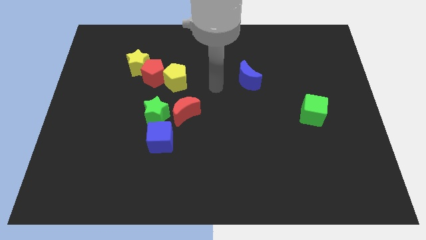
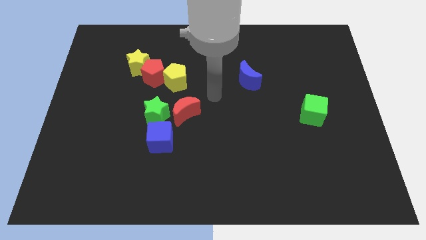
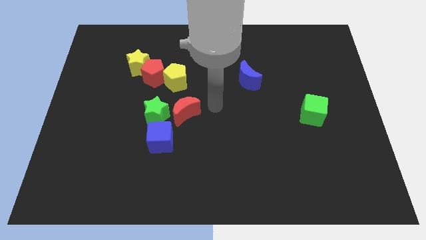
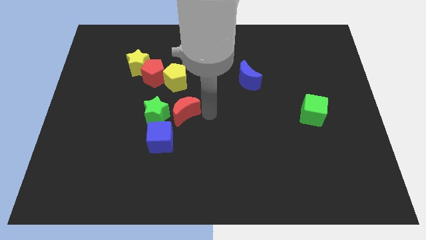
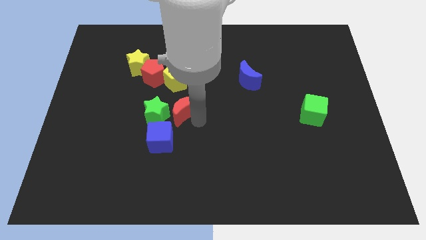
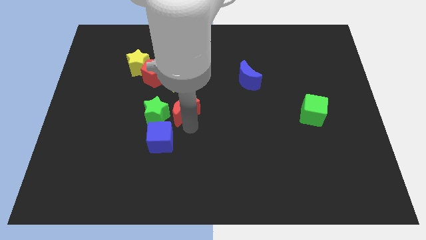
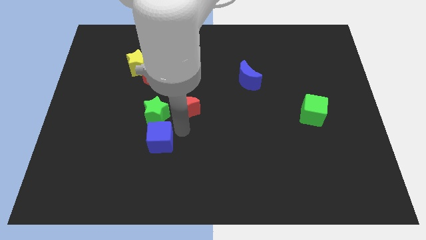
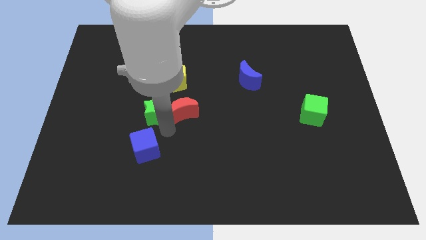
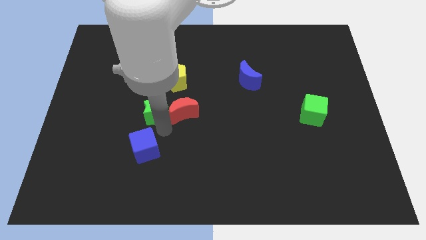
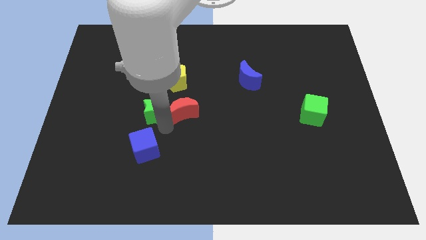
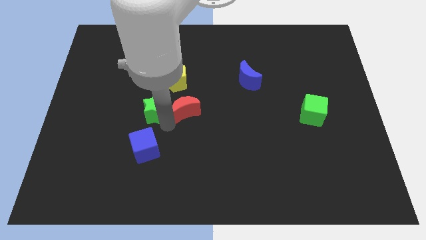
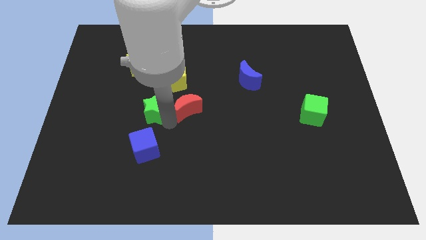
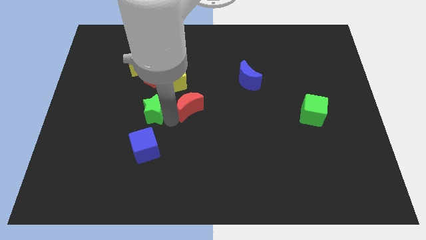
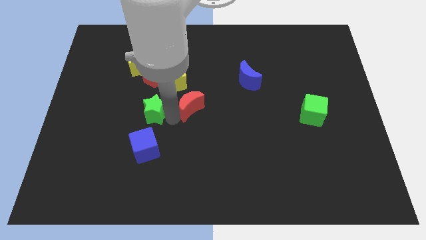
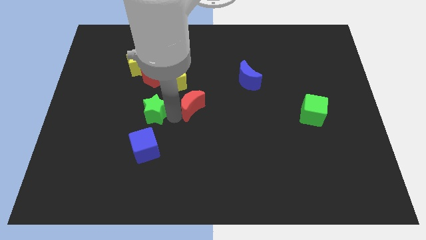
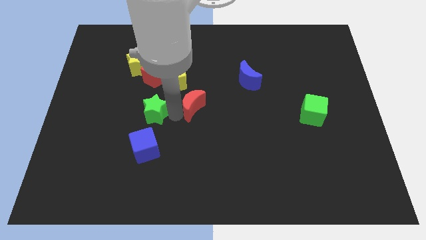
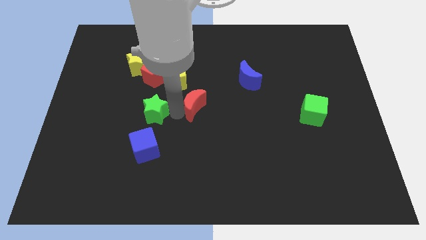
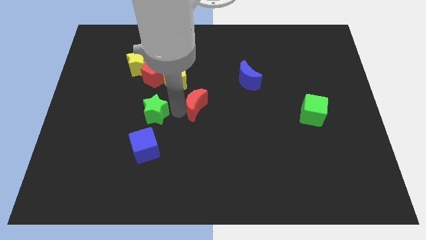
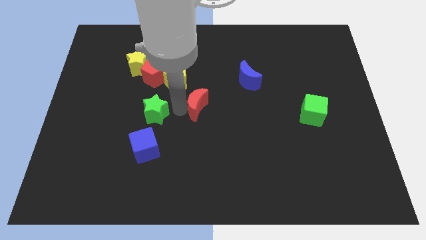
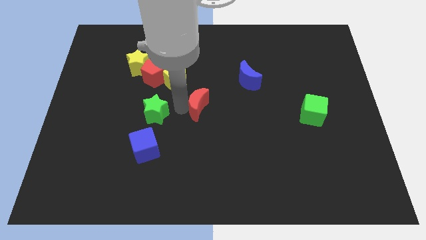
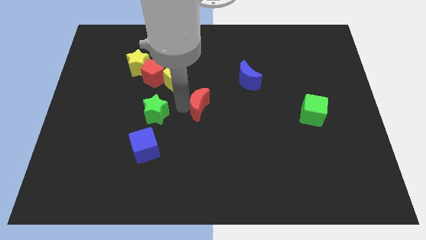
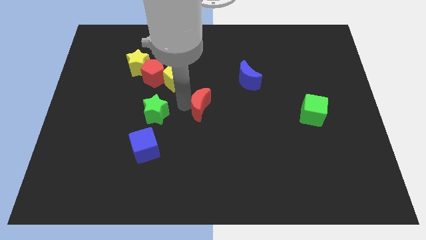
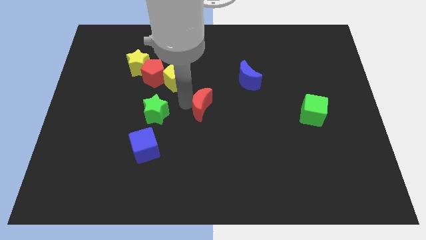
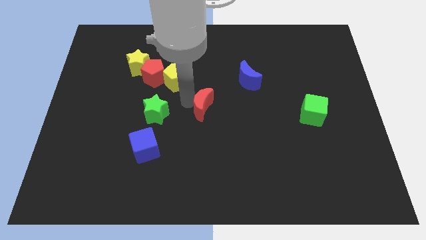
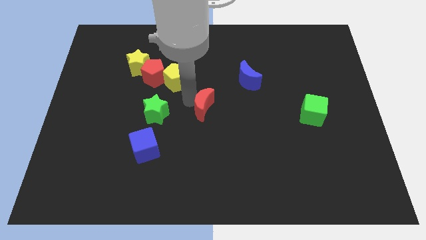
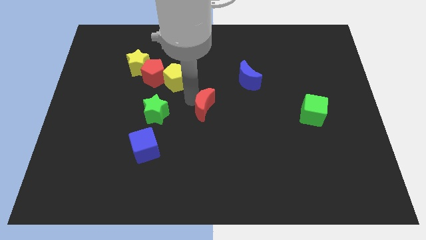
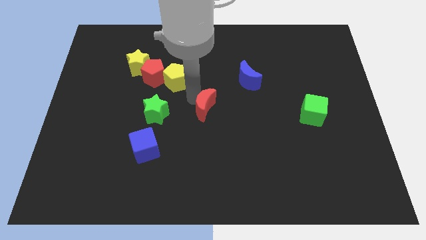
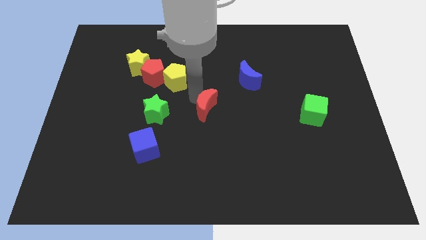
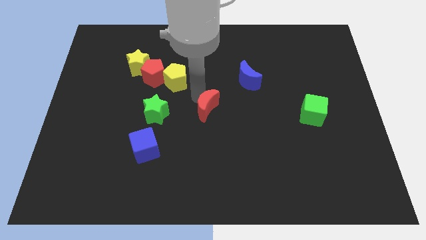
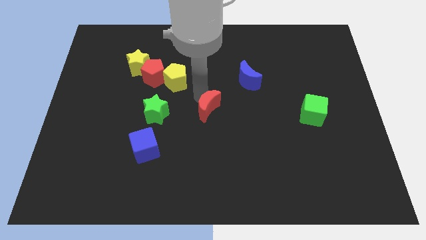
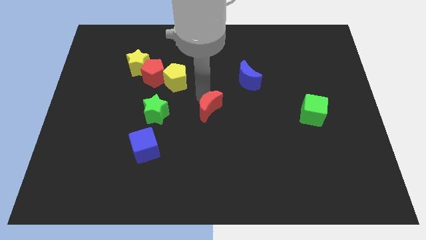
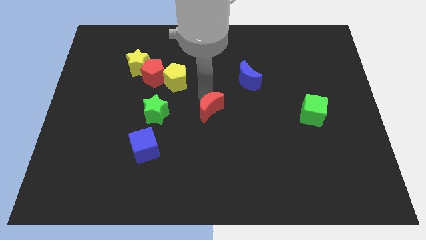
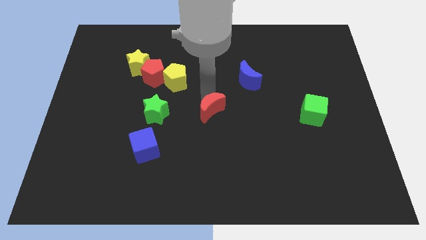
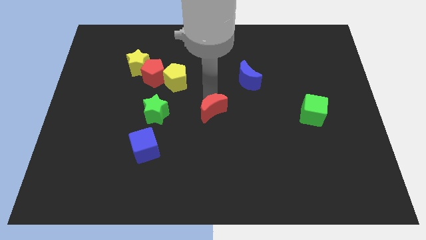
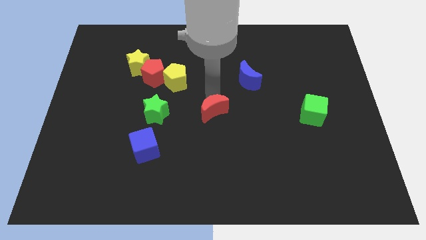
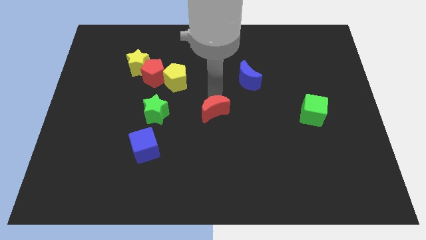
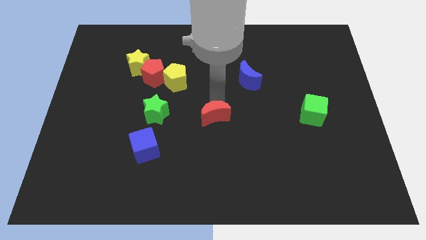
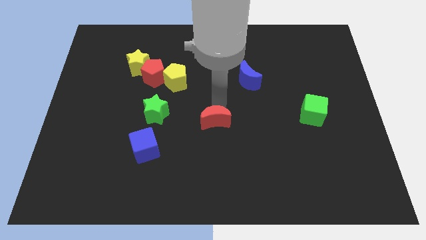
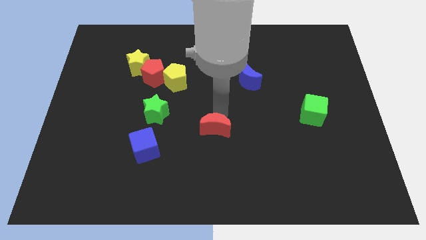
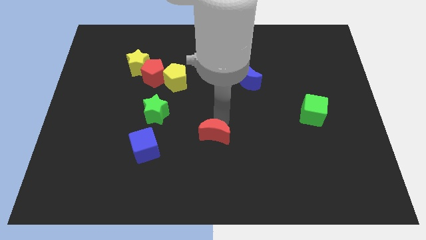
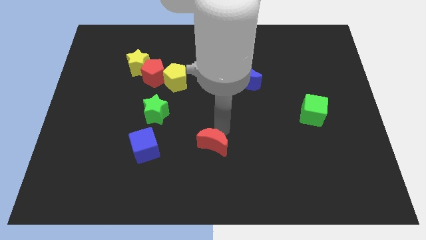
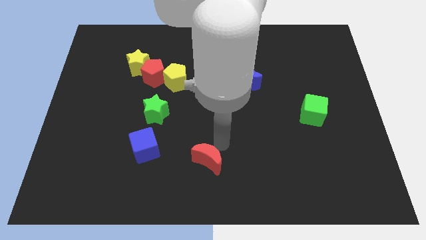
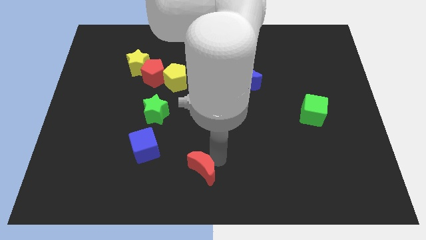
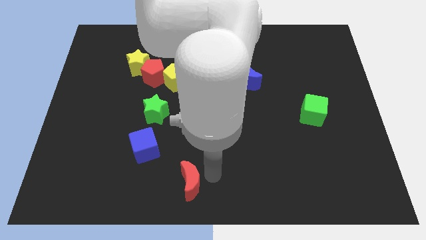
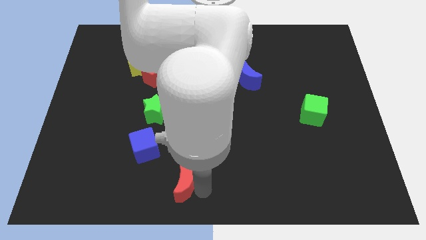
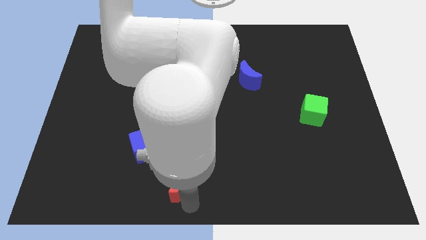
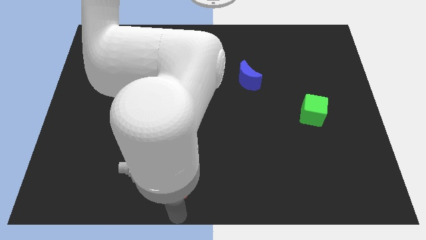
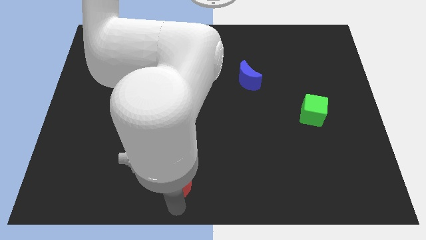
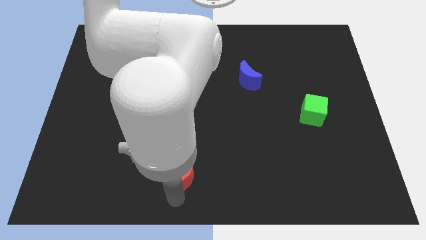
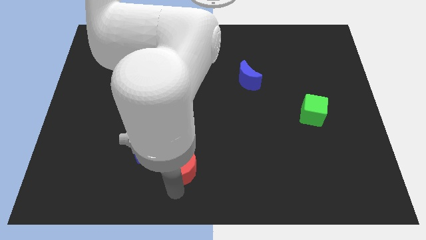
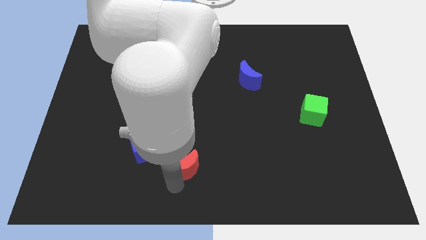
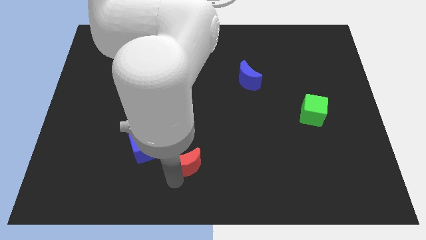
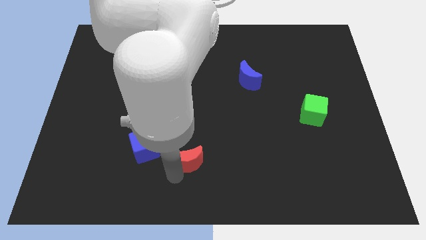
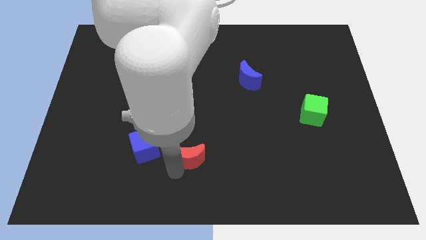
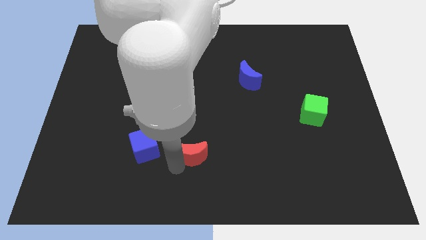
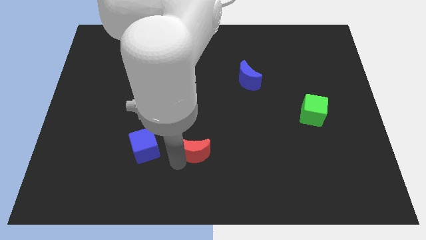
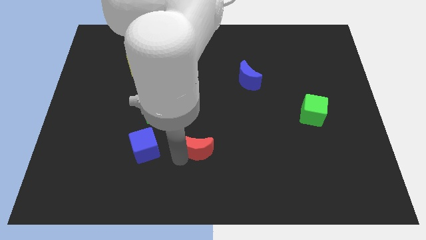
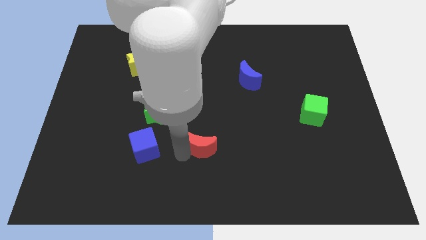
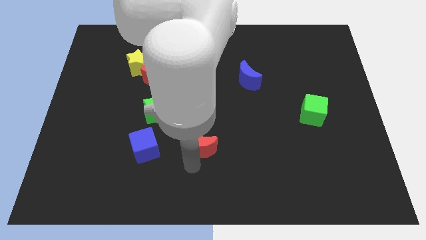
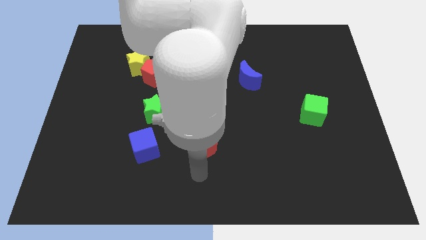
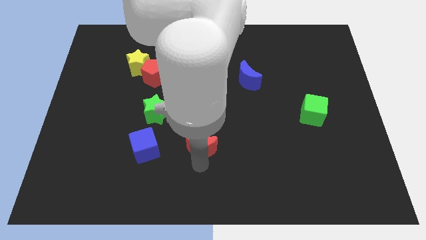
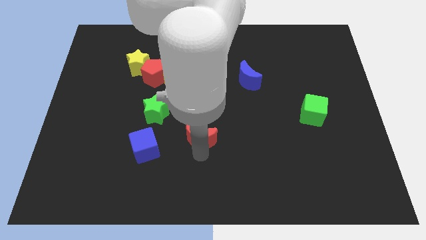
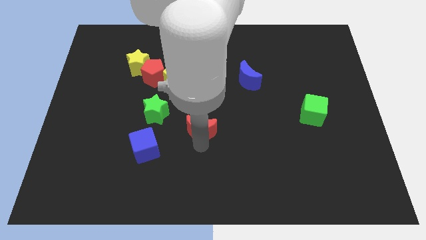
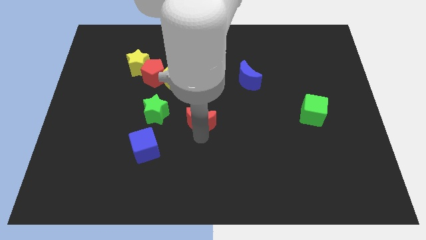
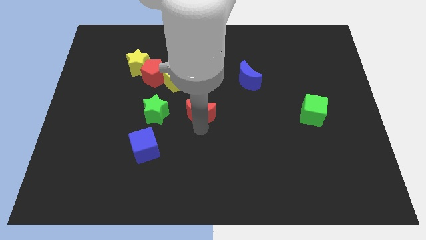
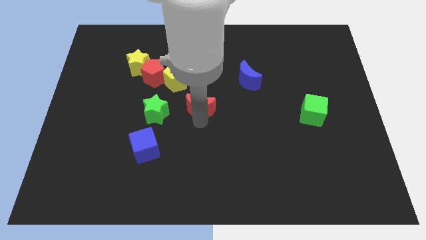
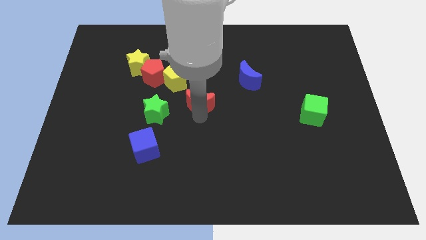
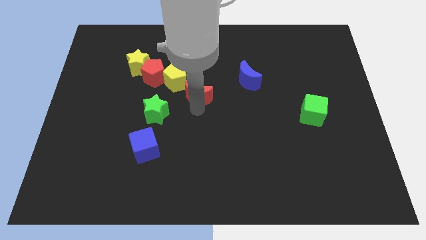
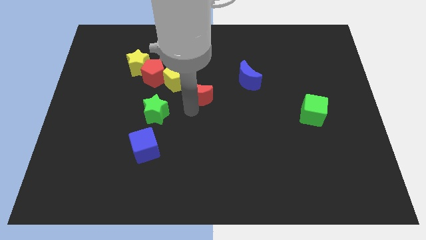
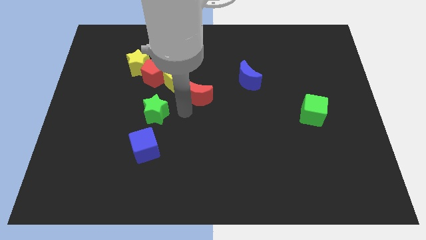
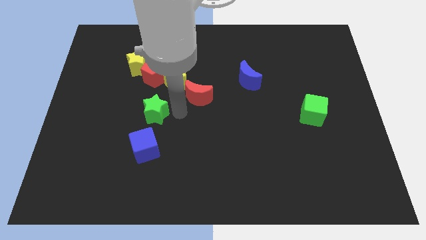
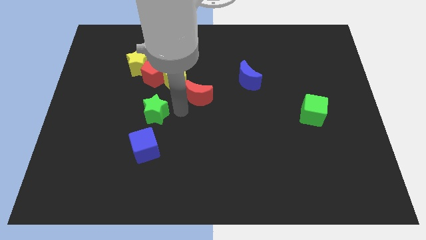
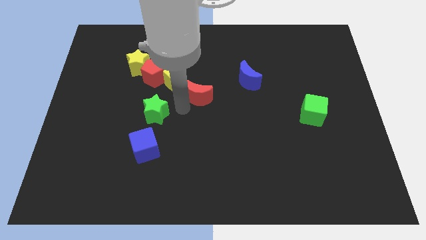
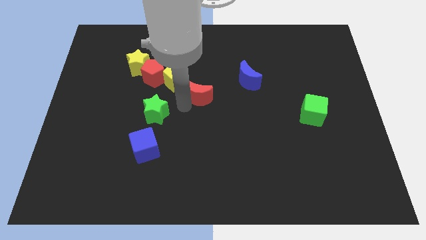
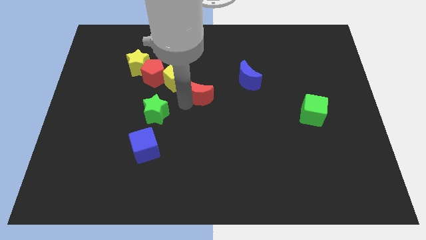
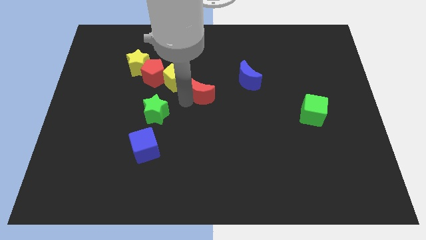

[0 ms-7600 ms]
push the red moon right of the yellow pentagon
